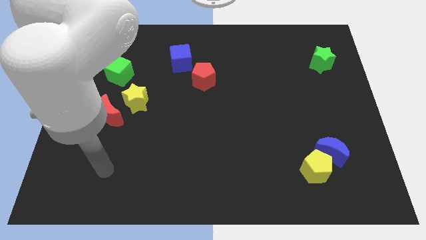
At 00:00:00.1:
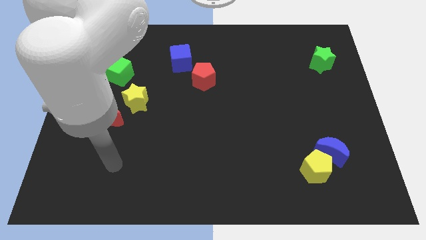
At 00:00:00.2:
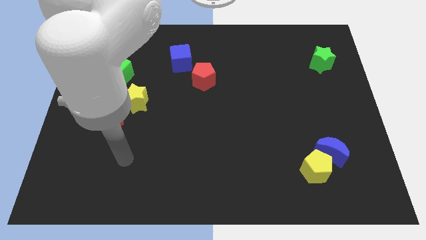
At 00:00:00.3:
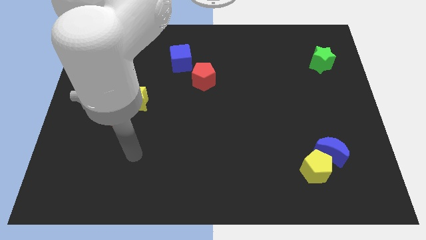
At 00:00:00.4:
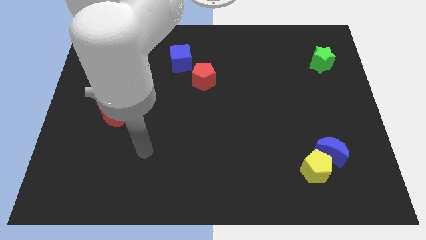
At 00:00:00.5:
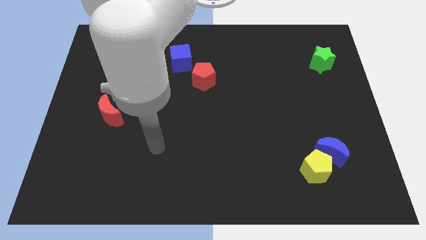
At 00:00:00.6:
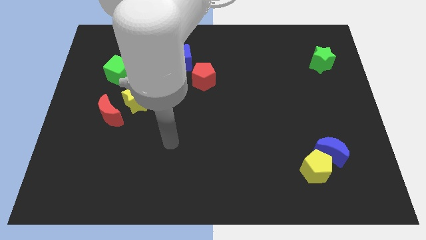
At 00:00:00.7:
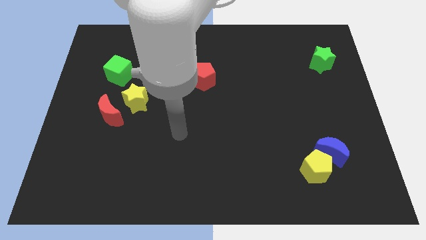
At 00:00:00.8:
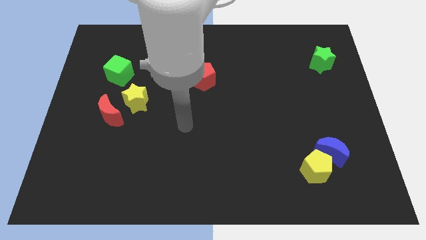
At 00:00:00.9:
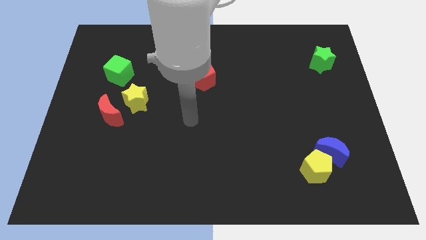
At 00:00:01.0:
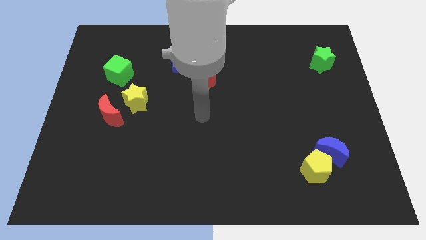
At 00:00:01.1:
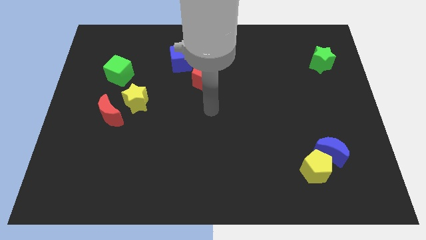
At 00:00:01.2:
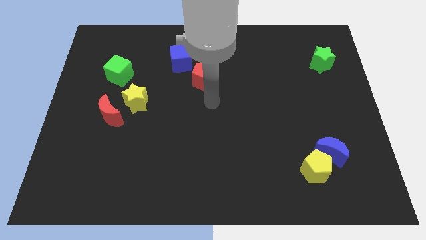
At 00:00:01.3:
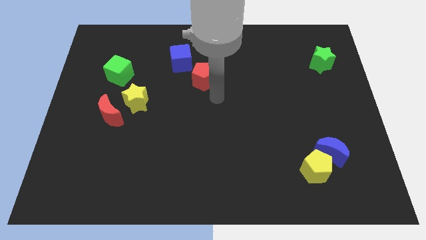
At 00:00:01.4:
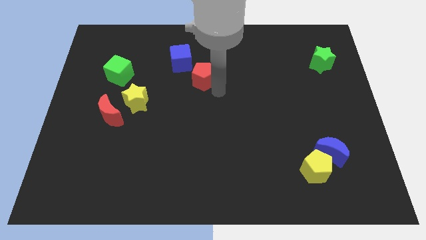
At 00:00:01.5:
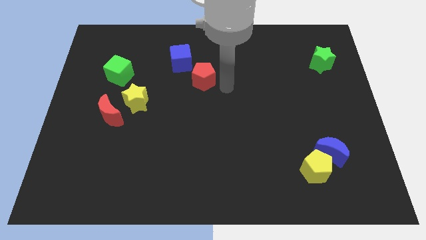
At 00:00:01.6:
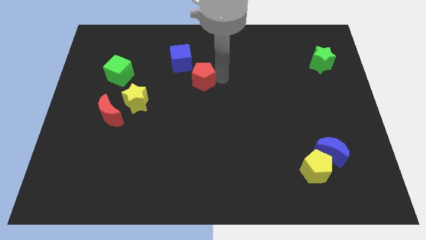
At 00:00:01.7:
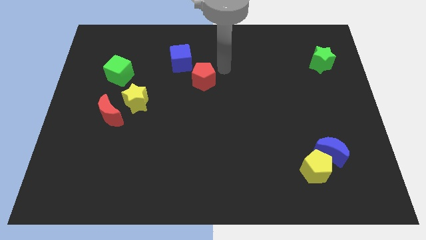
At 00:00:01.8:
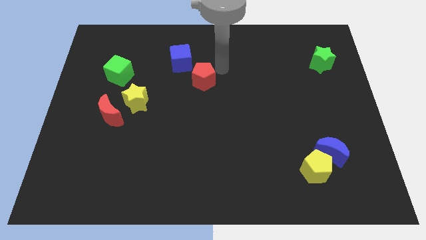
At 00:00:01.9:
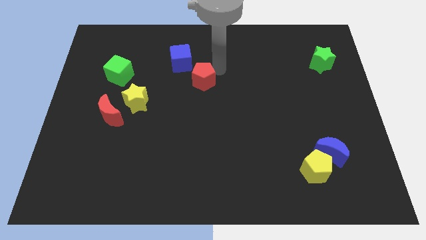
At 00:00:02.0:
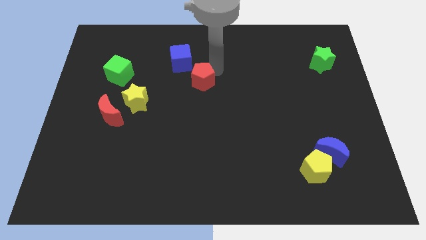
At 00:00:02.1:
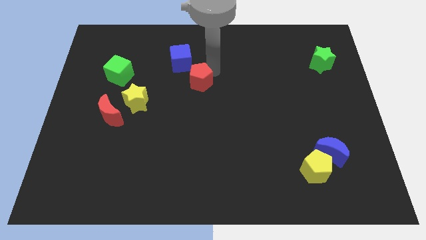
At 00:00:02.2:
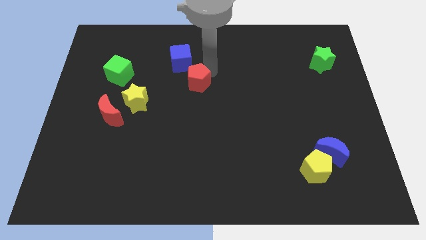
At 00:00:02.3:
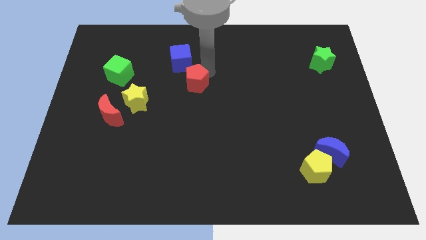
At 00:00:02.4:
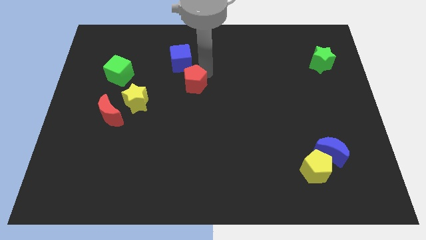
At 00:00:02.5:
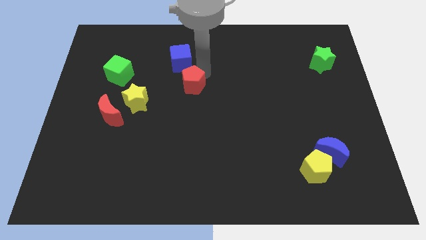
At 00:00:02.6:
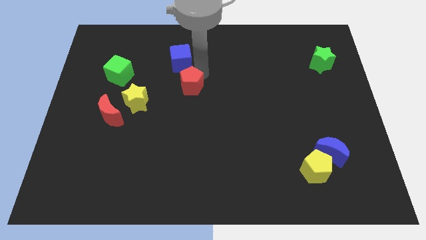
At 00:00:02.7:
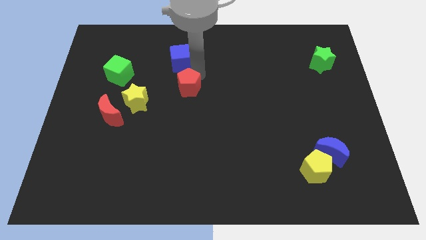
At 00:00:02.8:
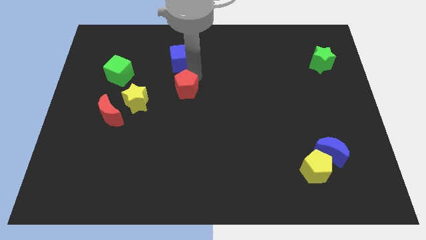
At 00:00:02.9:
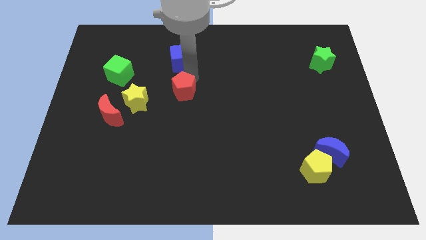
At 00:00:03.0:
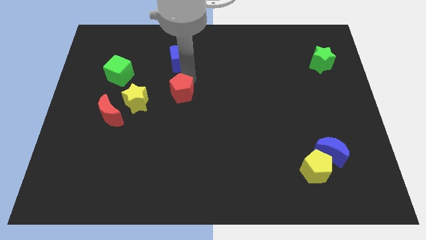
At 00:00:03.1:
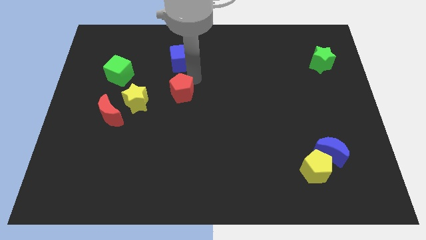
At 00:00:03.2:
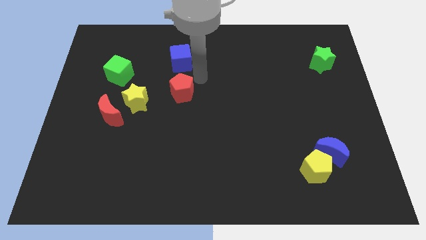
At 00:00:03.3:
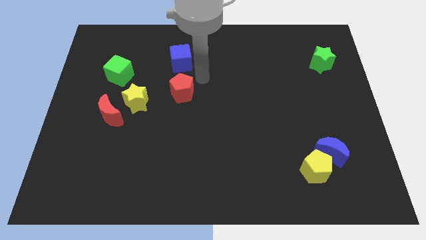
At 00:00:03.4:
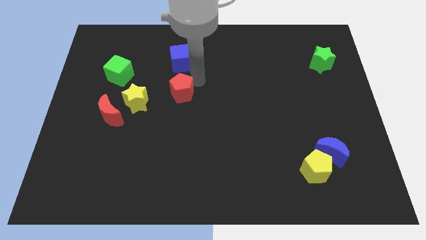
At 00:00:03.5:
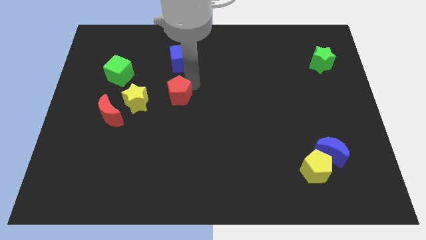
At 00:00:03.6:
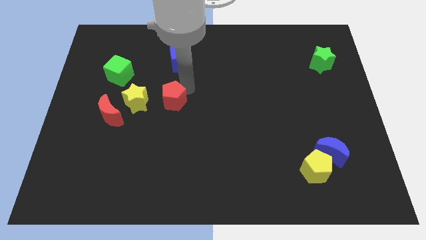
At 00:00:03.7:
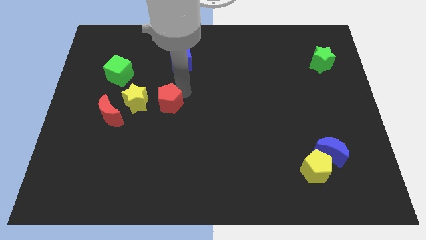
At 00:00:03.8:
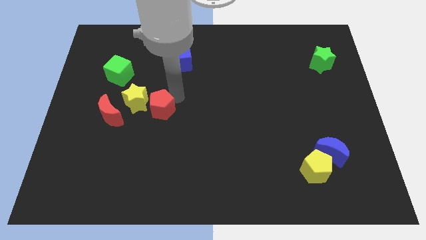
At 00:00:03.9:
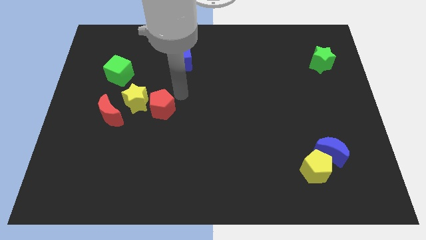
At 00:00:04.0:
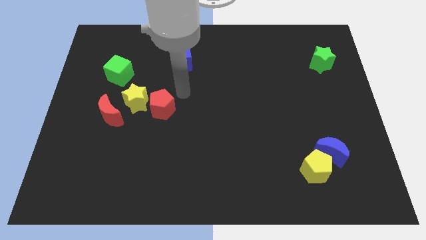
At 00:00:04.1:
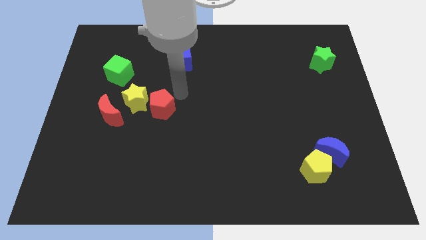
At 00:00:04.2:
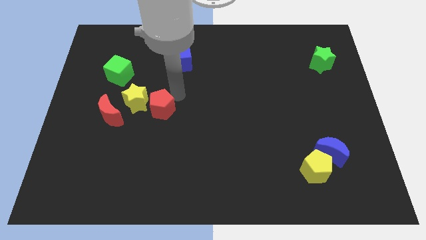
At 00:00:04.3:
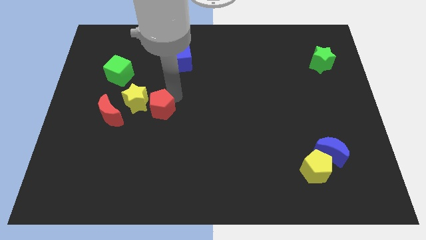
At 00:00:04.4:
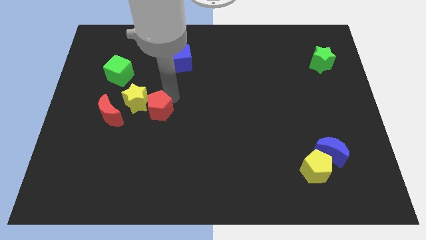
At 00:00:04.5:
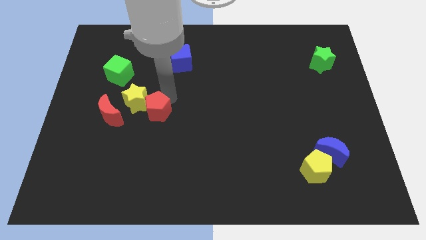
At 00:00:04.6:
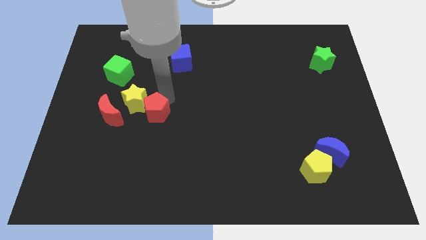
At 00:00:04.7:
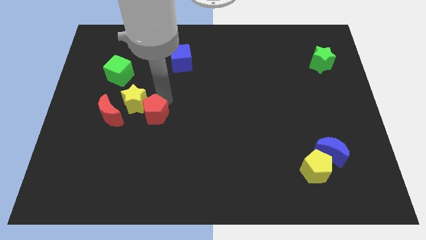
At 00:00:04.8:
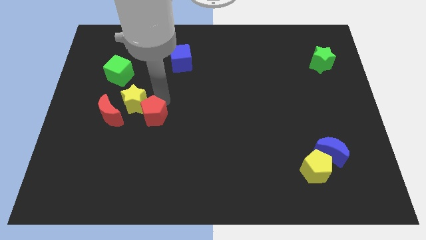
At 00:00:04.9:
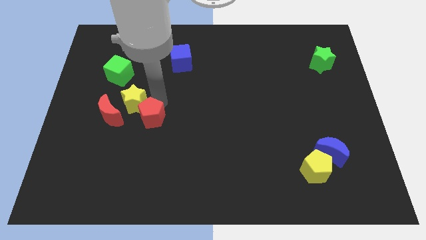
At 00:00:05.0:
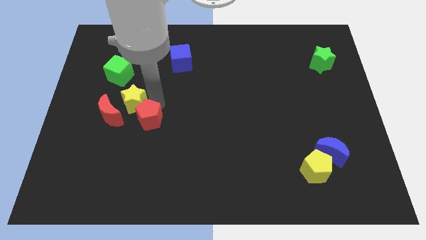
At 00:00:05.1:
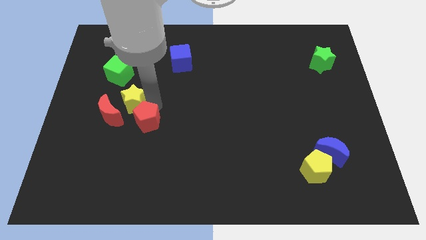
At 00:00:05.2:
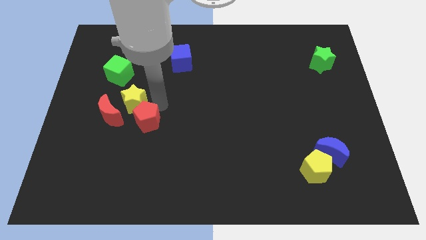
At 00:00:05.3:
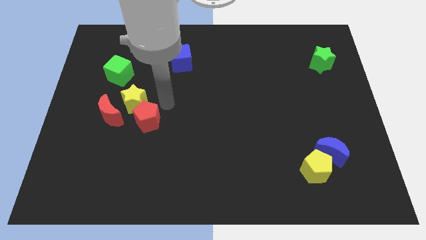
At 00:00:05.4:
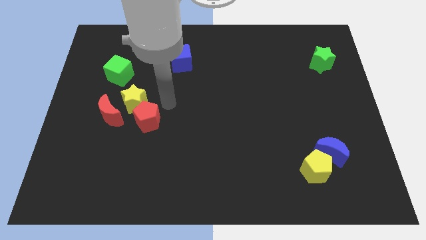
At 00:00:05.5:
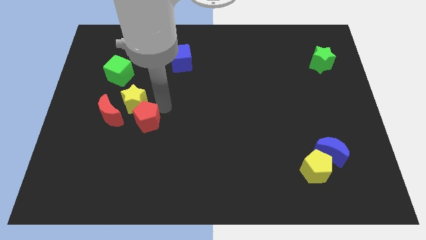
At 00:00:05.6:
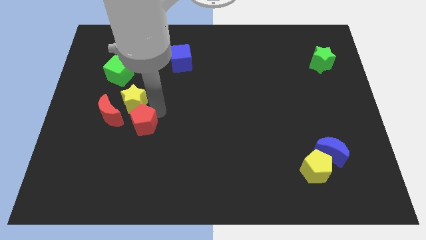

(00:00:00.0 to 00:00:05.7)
push the red pentagon to the bottom right side of the red moon

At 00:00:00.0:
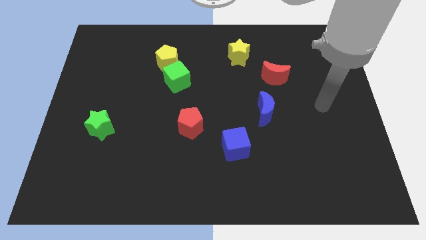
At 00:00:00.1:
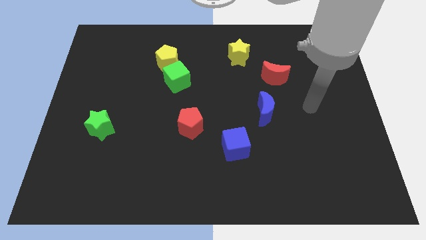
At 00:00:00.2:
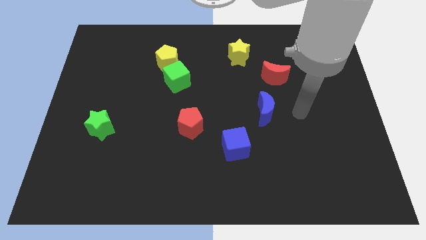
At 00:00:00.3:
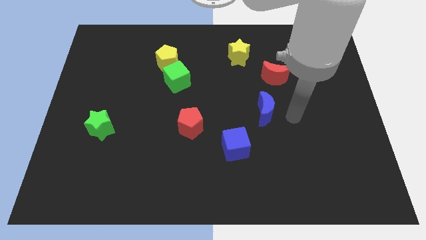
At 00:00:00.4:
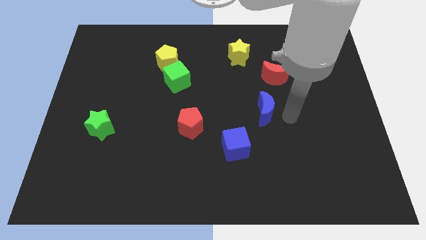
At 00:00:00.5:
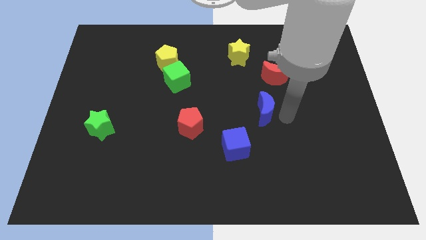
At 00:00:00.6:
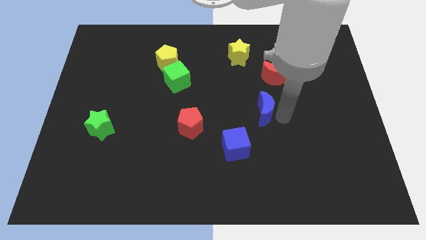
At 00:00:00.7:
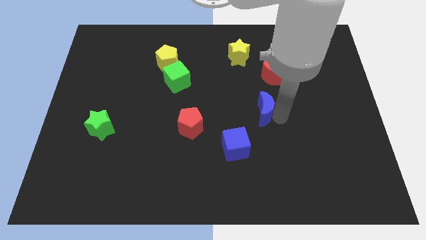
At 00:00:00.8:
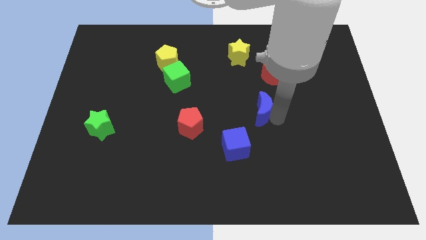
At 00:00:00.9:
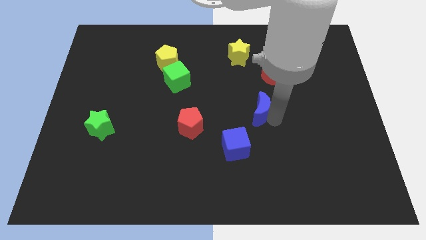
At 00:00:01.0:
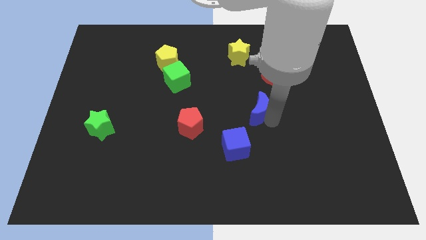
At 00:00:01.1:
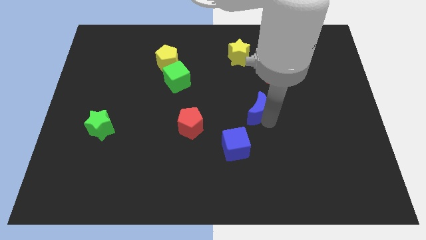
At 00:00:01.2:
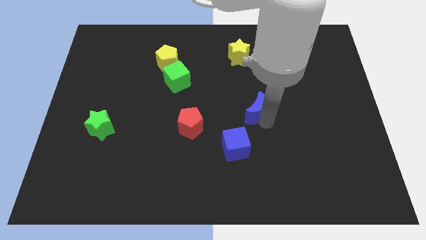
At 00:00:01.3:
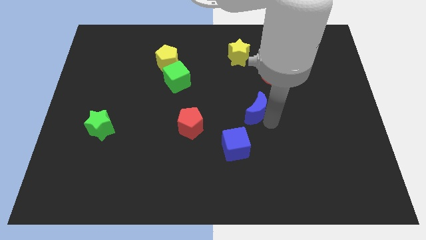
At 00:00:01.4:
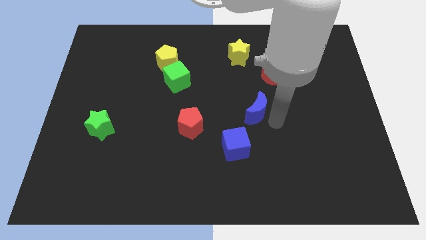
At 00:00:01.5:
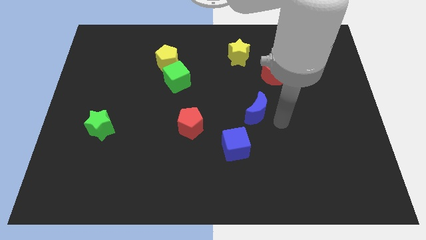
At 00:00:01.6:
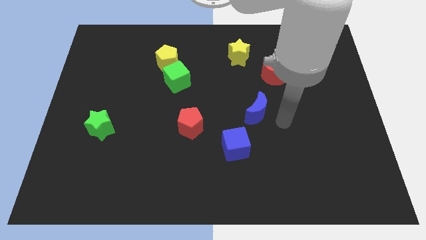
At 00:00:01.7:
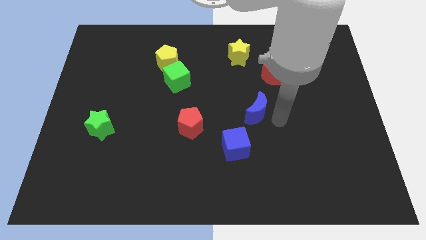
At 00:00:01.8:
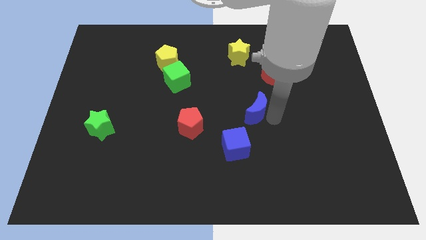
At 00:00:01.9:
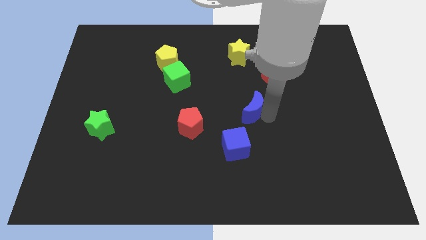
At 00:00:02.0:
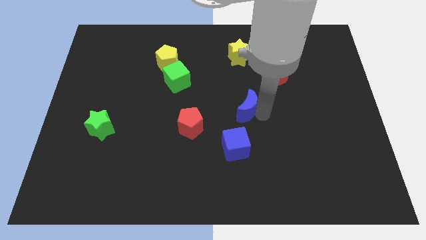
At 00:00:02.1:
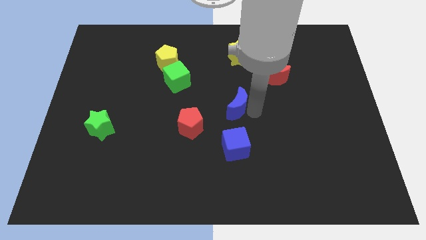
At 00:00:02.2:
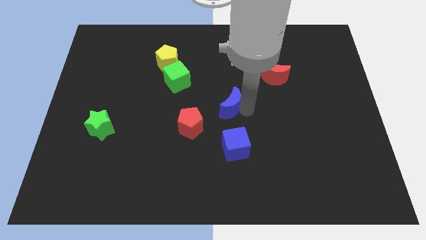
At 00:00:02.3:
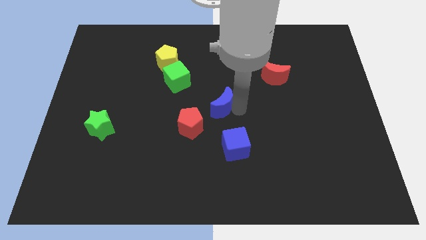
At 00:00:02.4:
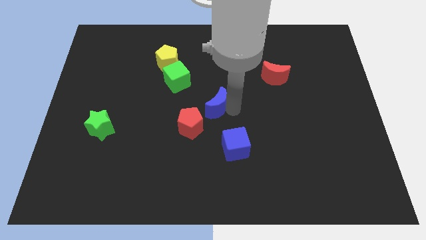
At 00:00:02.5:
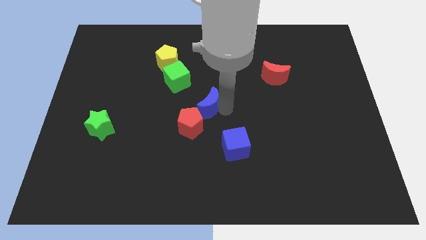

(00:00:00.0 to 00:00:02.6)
slide the blue moon diagonally down and to the right of the green cube
